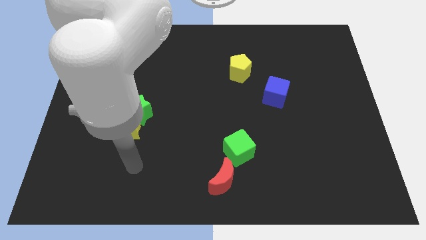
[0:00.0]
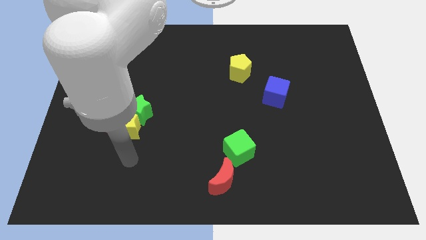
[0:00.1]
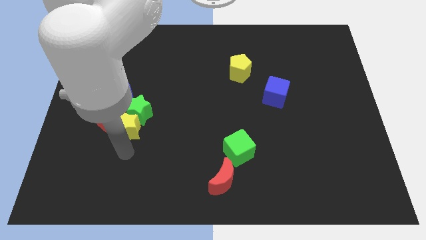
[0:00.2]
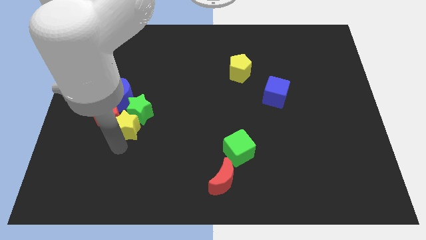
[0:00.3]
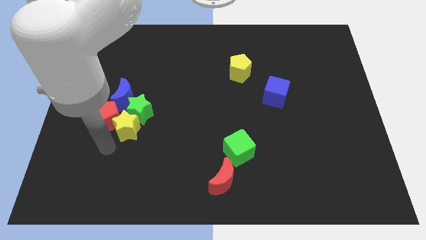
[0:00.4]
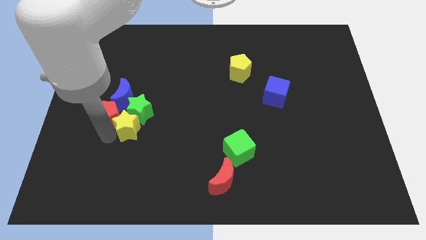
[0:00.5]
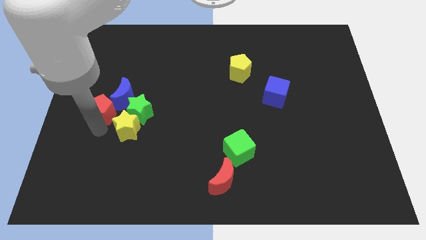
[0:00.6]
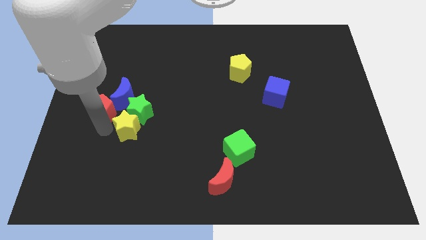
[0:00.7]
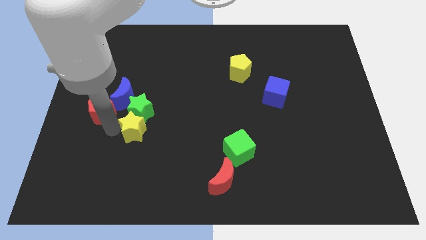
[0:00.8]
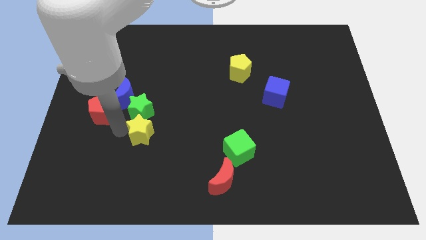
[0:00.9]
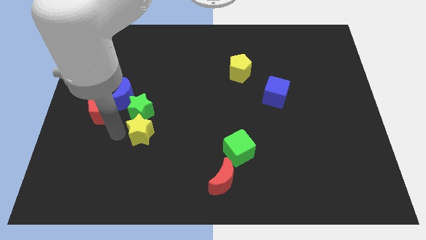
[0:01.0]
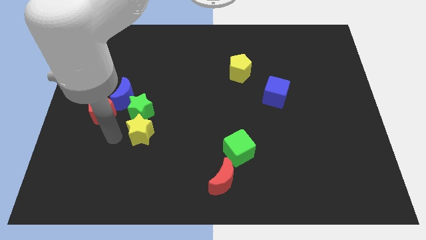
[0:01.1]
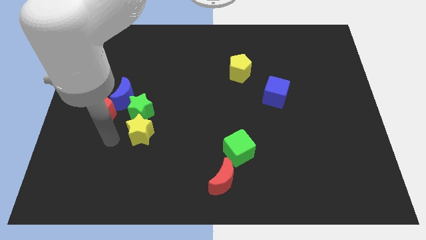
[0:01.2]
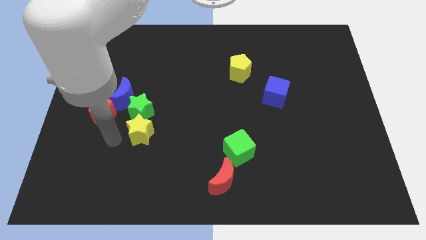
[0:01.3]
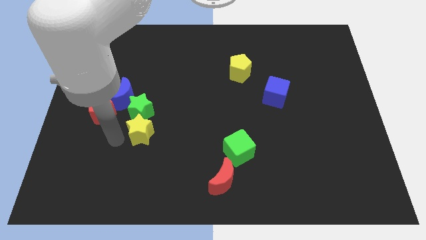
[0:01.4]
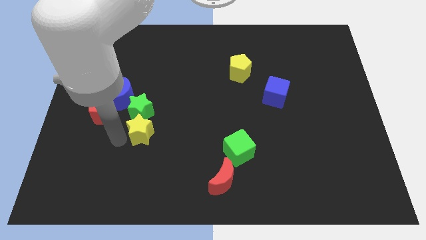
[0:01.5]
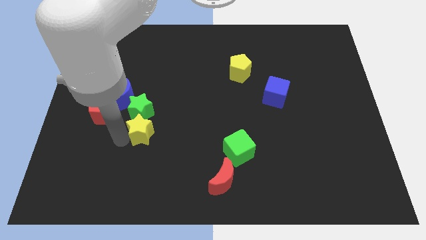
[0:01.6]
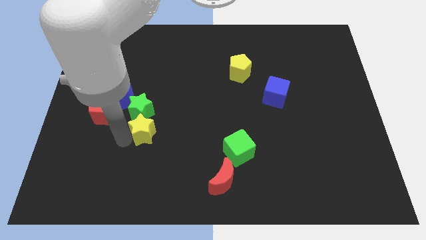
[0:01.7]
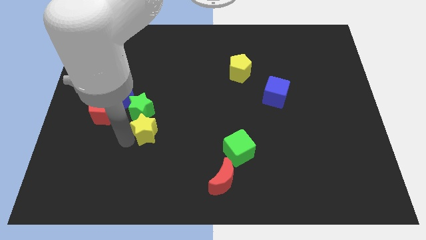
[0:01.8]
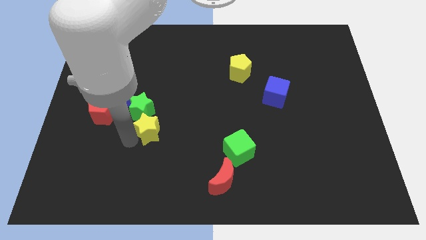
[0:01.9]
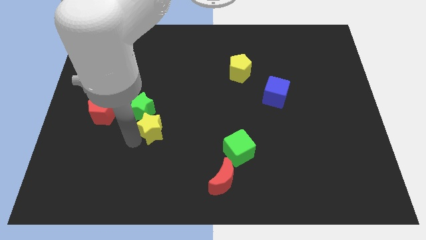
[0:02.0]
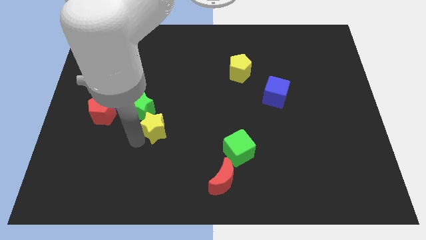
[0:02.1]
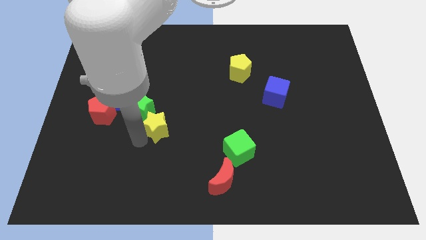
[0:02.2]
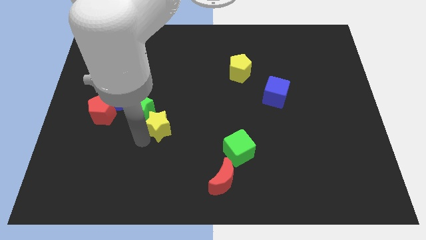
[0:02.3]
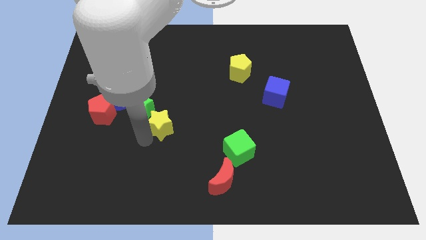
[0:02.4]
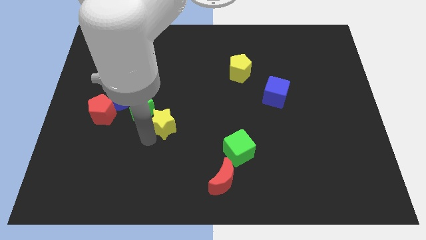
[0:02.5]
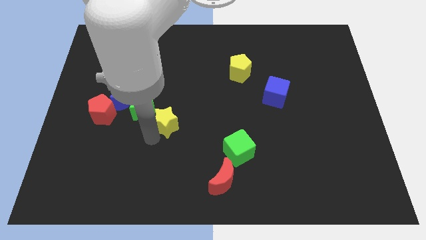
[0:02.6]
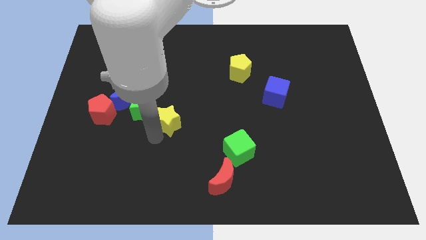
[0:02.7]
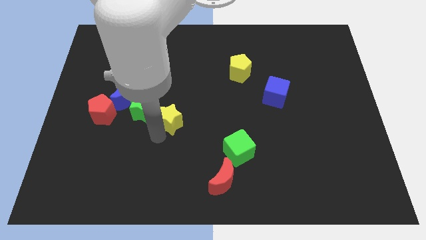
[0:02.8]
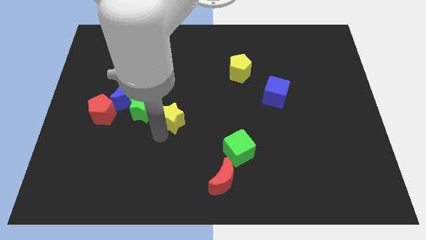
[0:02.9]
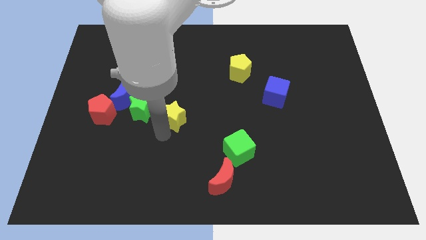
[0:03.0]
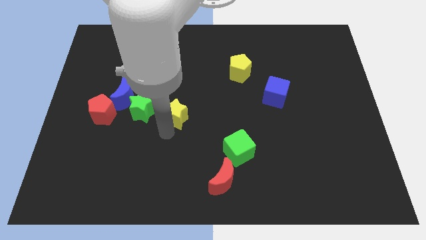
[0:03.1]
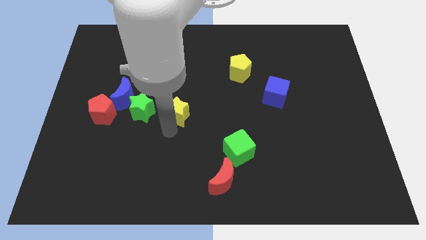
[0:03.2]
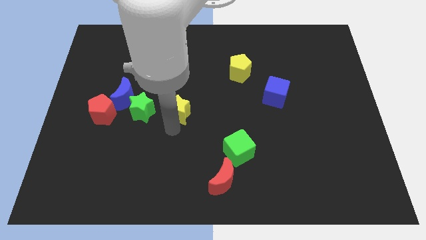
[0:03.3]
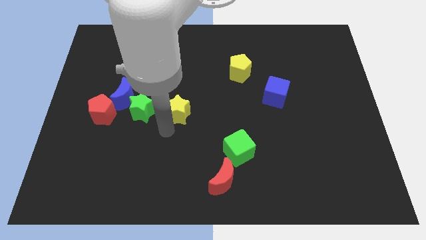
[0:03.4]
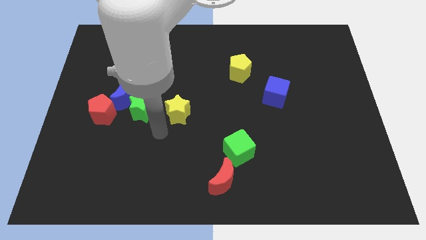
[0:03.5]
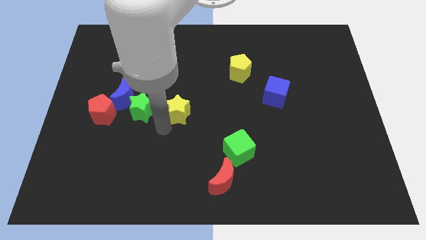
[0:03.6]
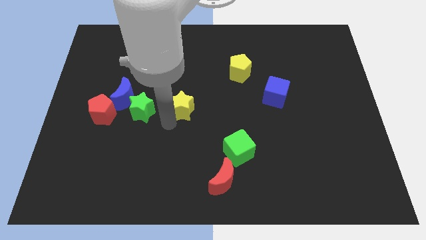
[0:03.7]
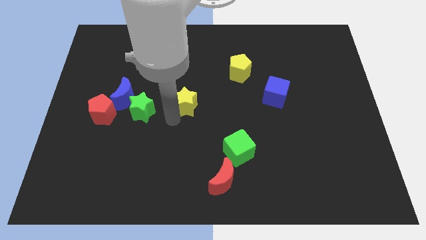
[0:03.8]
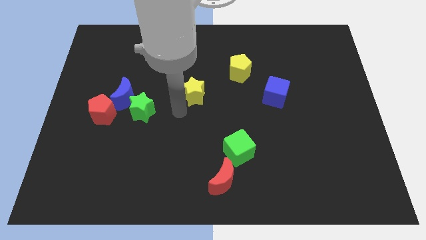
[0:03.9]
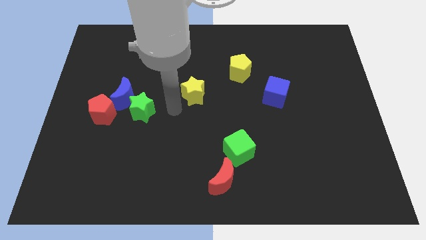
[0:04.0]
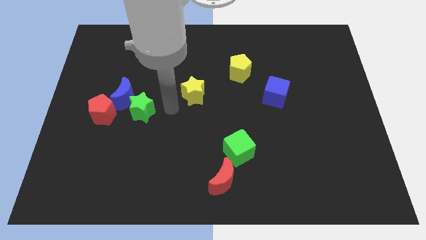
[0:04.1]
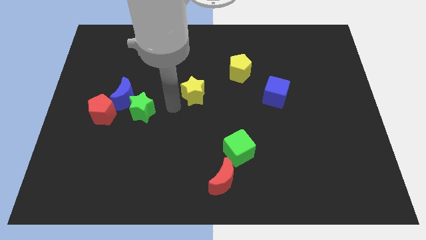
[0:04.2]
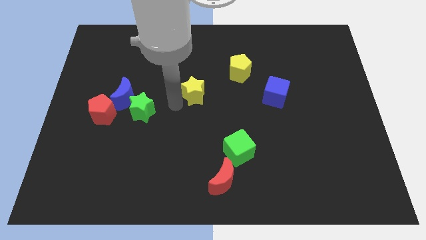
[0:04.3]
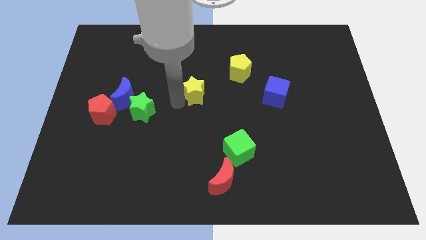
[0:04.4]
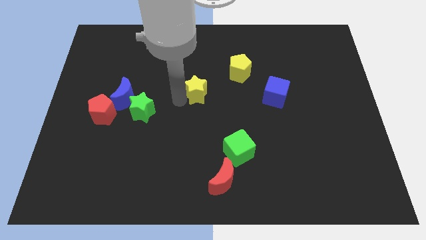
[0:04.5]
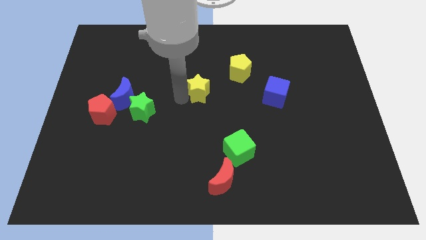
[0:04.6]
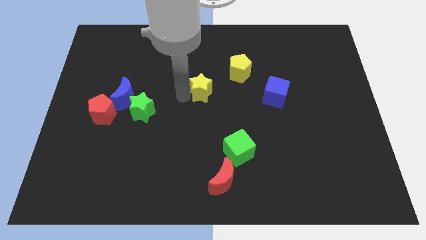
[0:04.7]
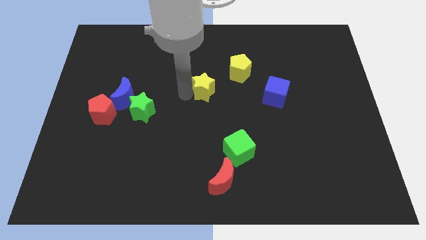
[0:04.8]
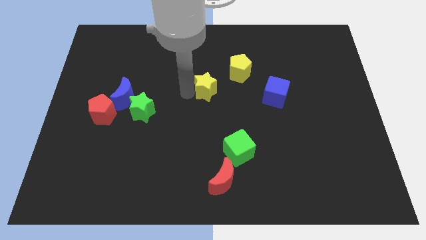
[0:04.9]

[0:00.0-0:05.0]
move the yellow star upwards and to the right diagonally

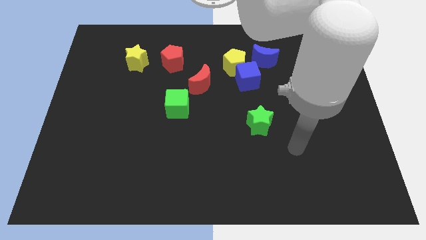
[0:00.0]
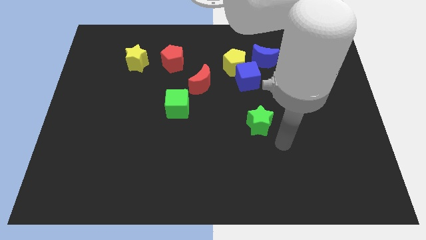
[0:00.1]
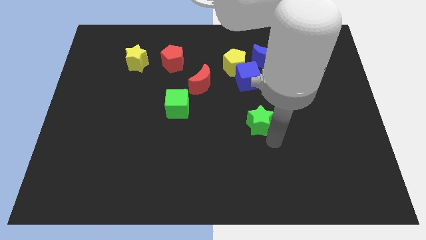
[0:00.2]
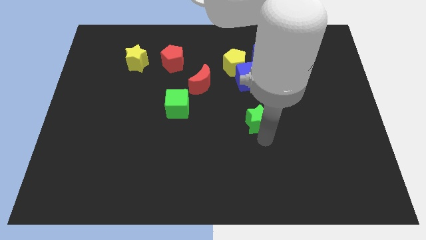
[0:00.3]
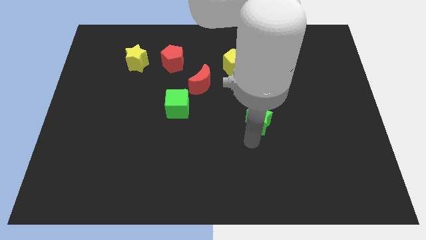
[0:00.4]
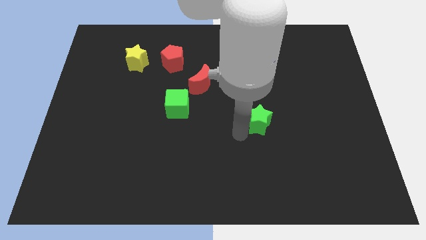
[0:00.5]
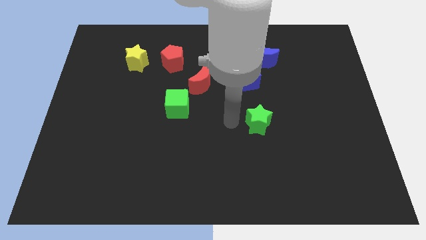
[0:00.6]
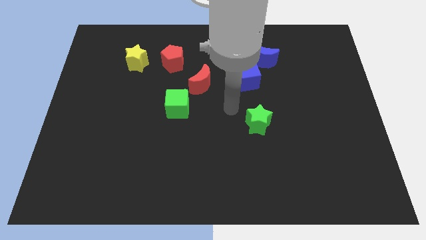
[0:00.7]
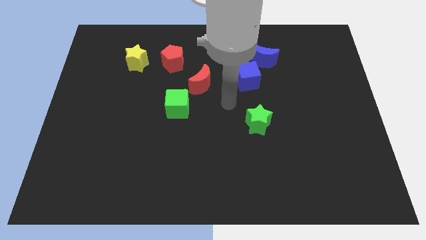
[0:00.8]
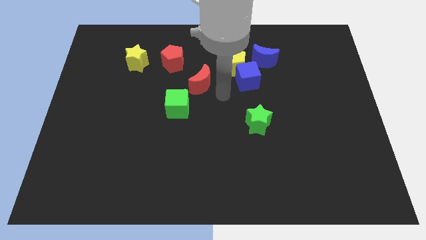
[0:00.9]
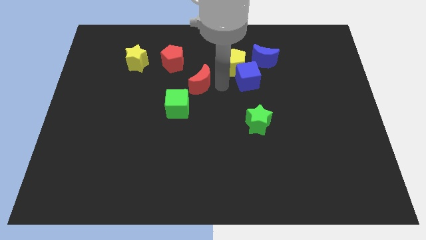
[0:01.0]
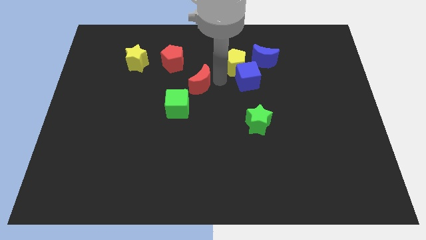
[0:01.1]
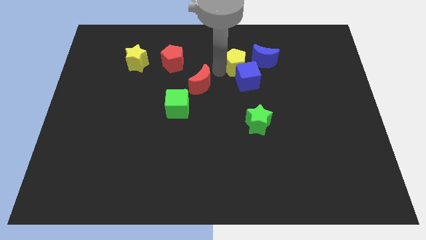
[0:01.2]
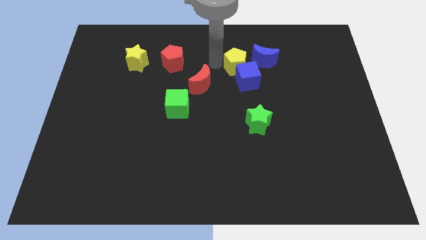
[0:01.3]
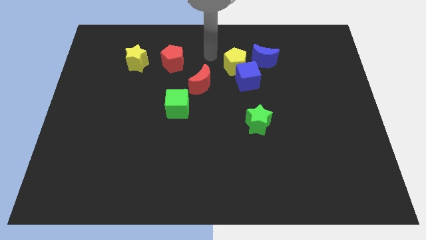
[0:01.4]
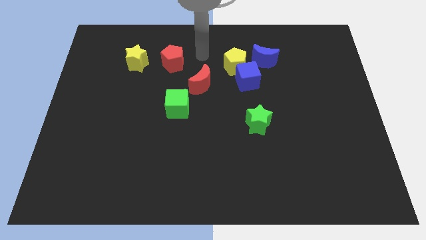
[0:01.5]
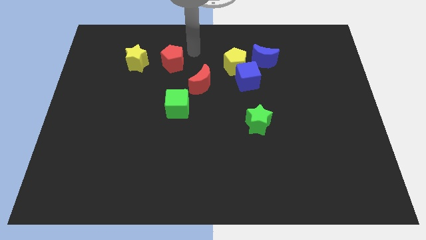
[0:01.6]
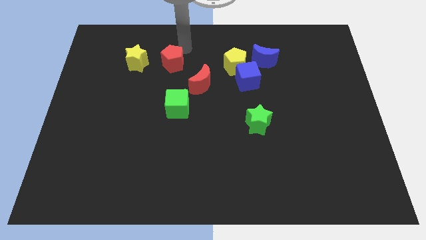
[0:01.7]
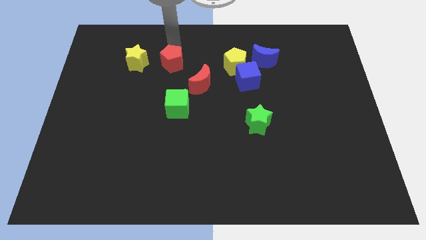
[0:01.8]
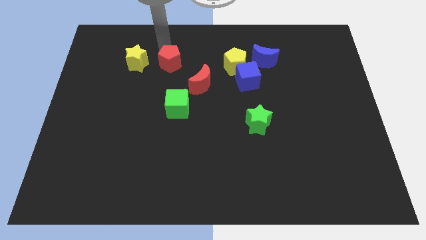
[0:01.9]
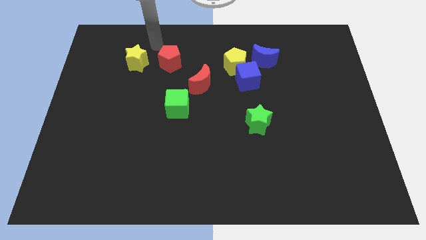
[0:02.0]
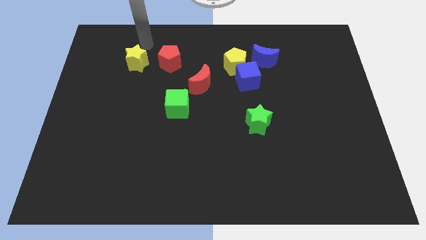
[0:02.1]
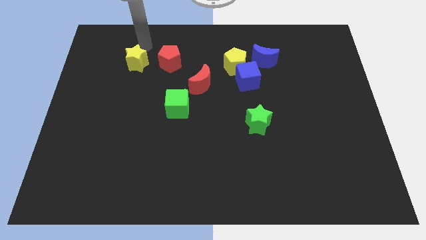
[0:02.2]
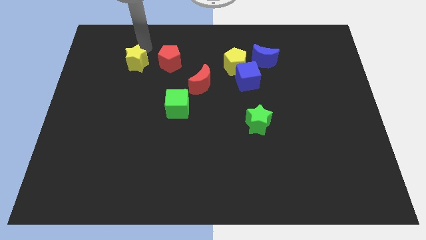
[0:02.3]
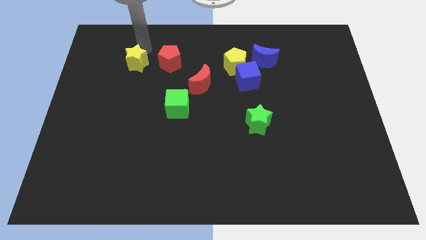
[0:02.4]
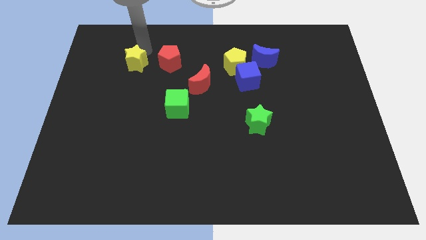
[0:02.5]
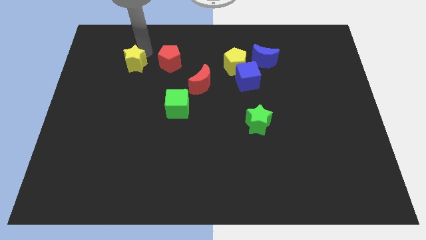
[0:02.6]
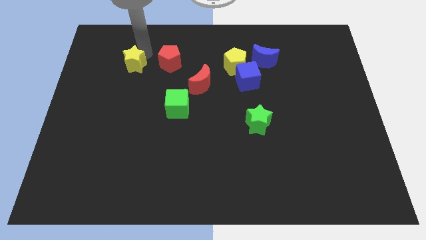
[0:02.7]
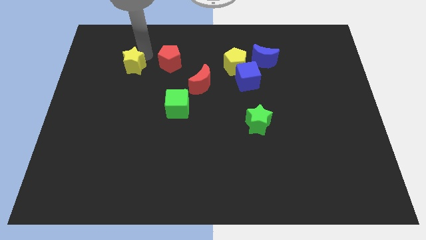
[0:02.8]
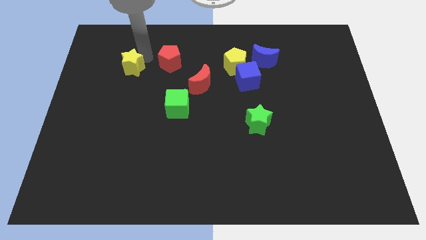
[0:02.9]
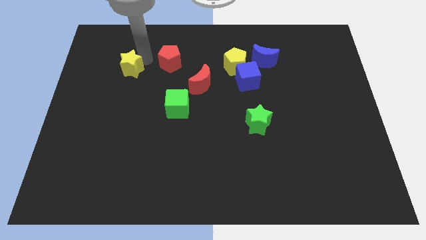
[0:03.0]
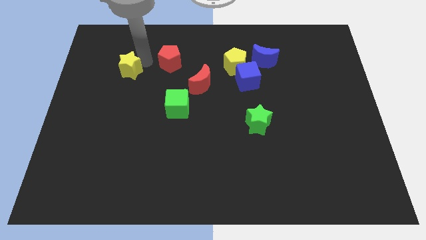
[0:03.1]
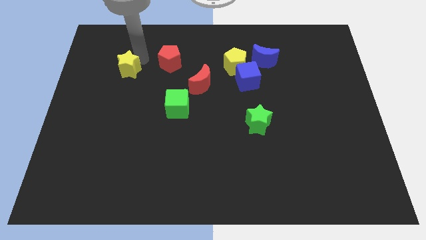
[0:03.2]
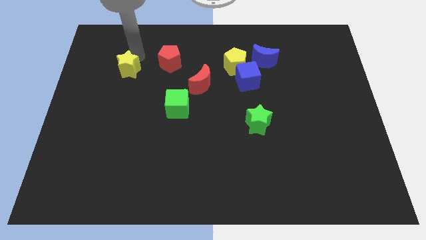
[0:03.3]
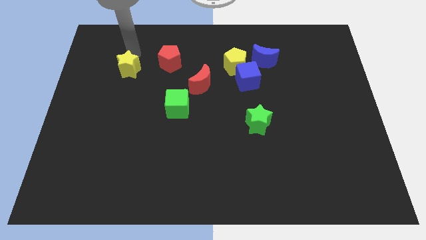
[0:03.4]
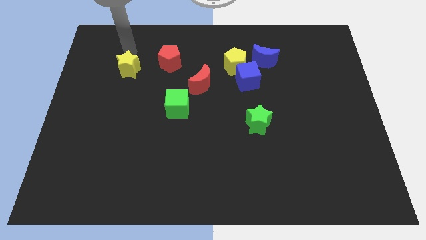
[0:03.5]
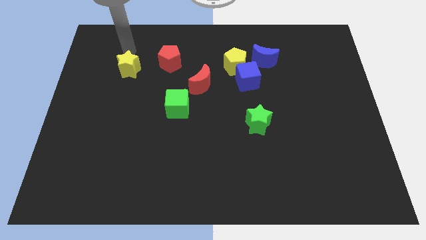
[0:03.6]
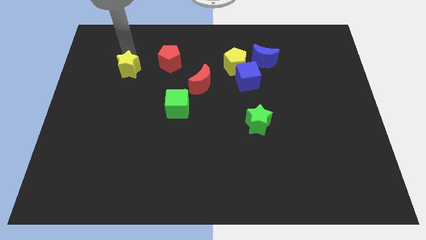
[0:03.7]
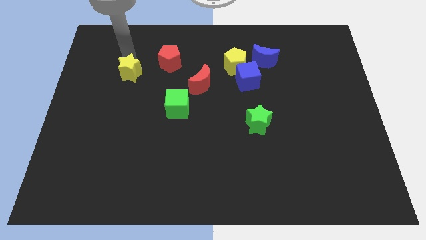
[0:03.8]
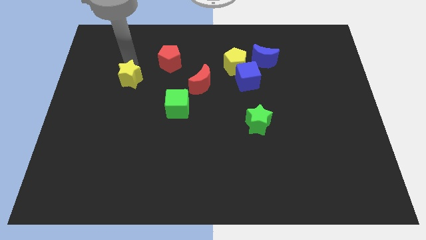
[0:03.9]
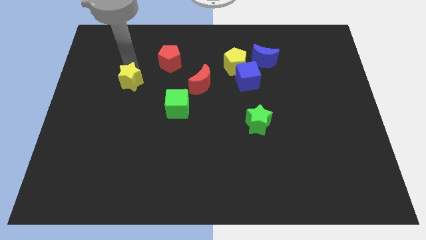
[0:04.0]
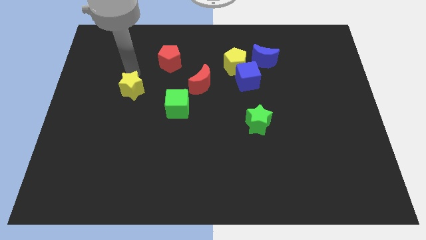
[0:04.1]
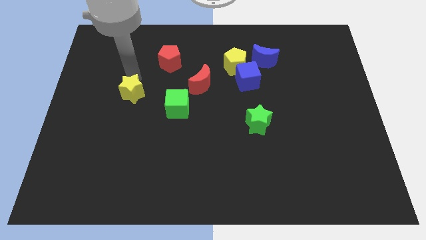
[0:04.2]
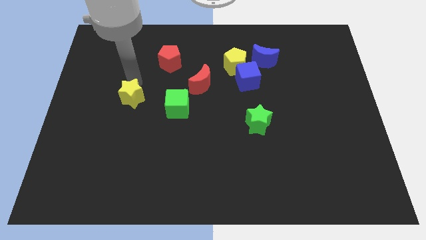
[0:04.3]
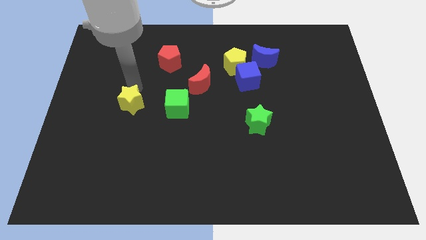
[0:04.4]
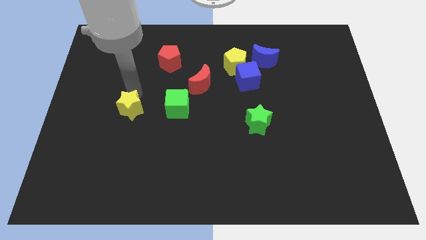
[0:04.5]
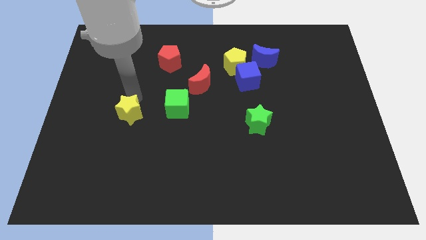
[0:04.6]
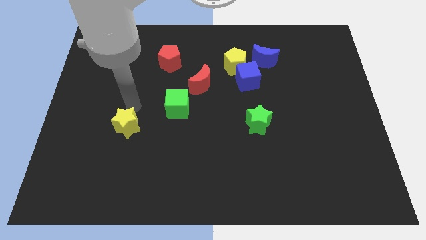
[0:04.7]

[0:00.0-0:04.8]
slide the yellow star down
